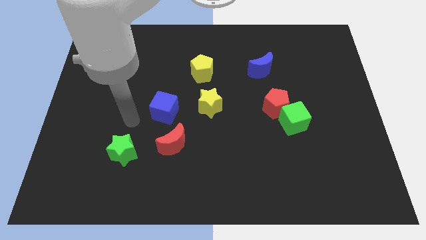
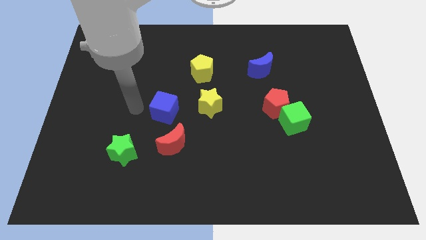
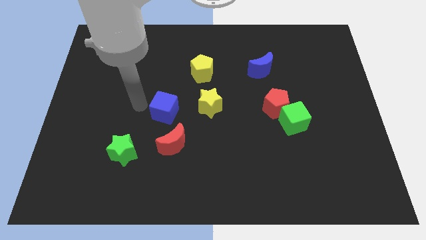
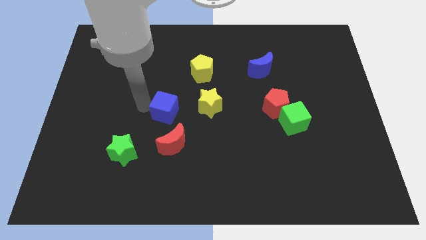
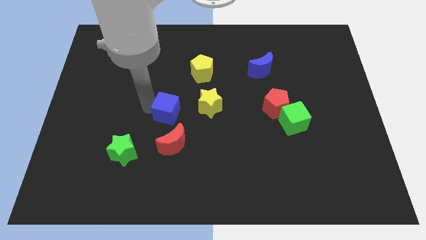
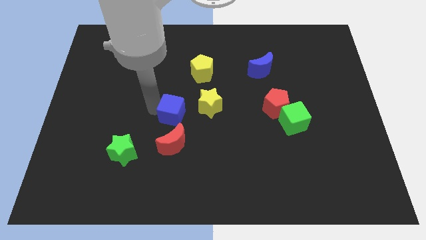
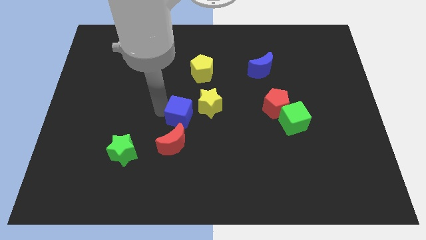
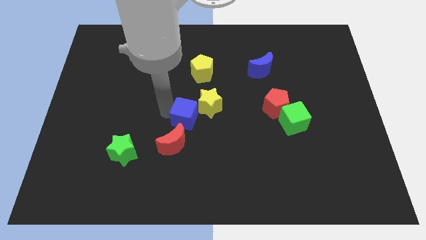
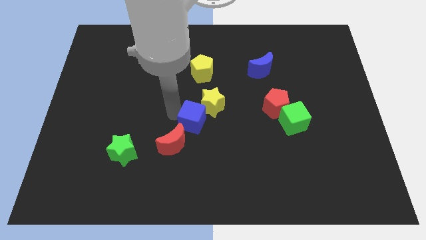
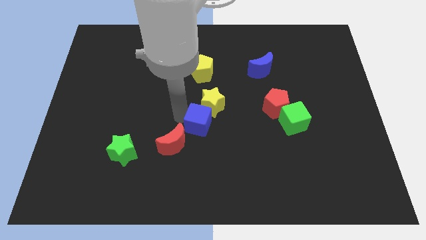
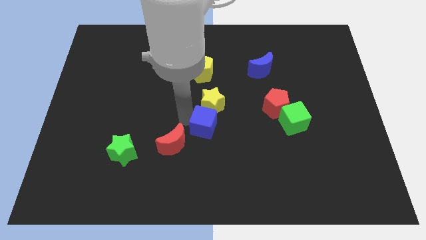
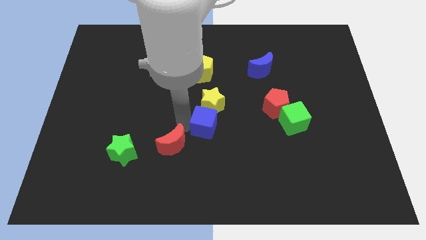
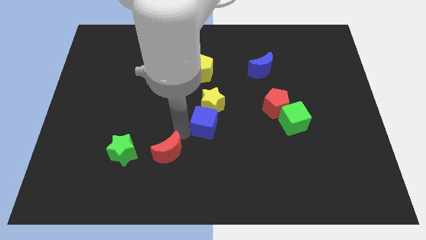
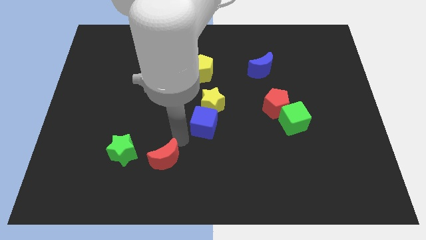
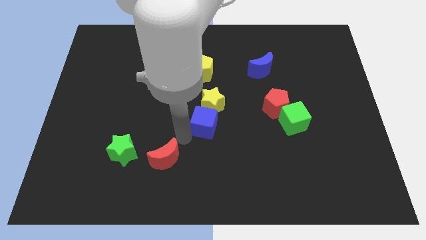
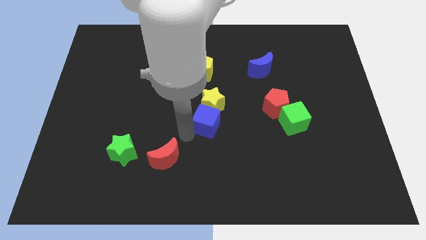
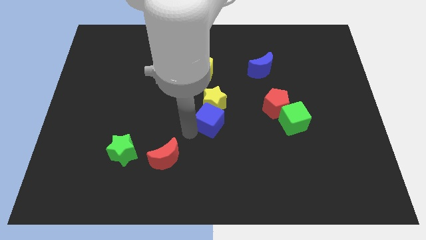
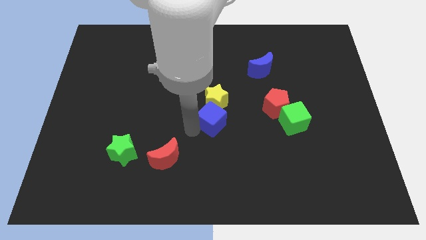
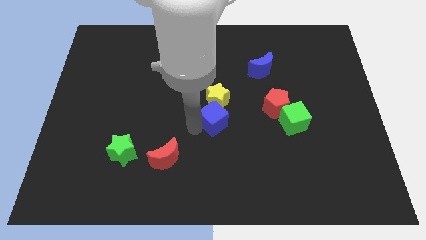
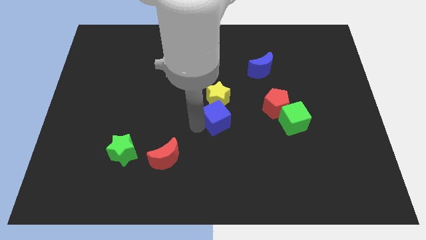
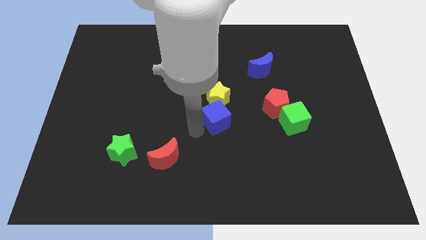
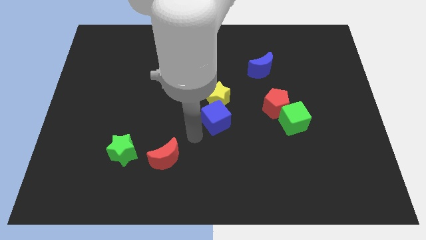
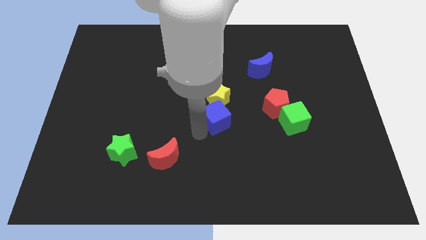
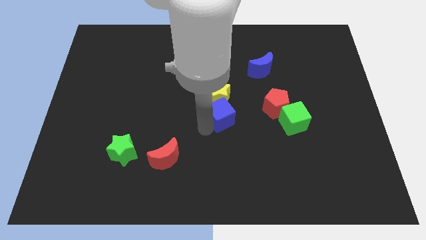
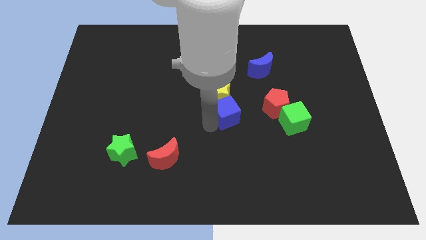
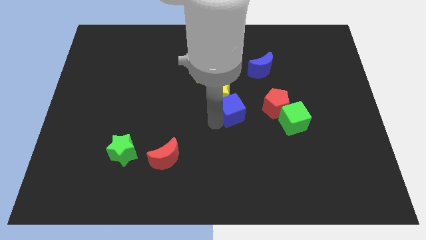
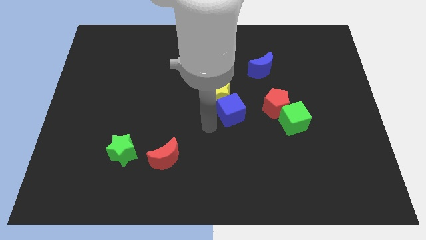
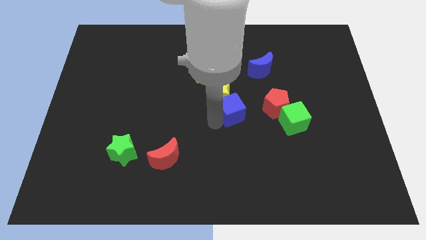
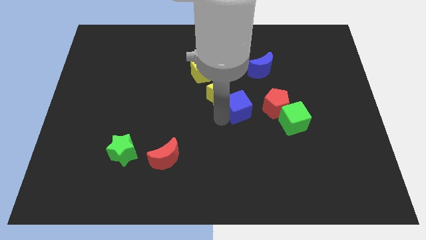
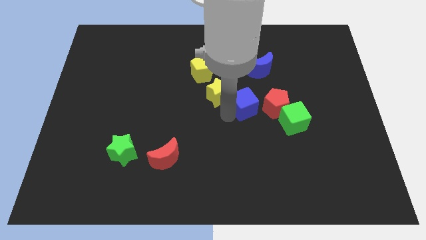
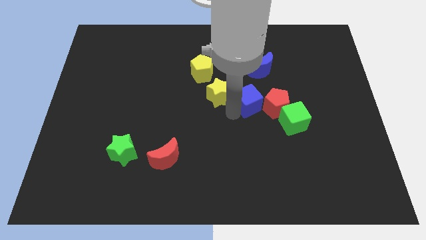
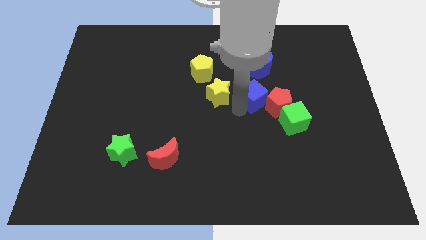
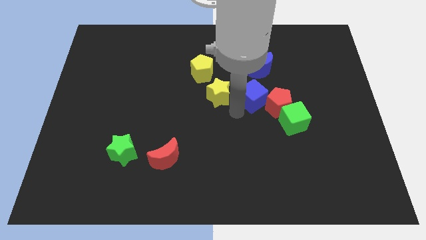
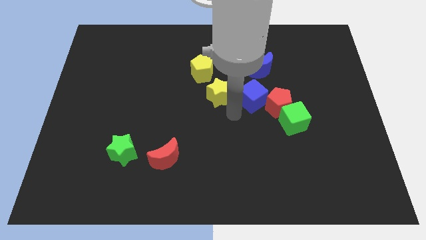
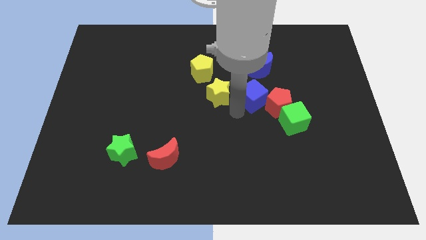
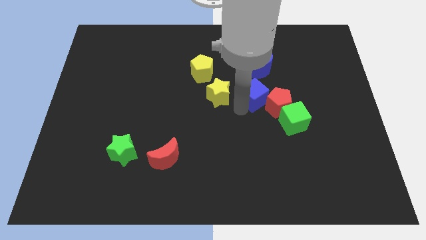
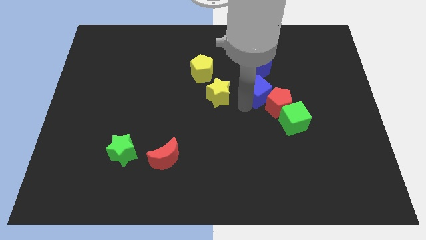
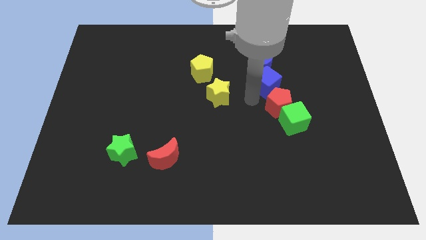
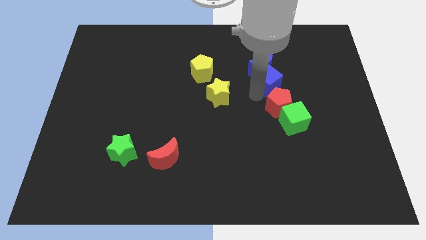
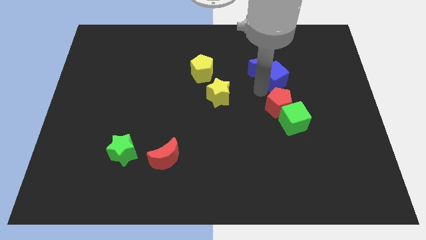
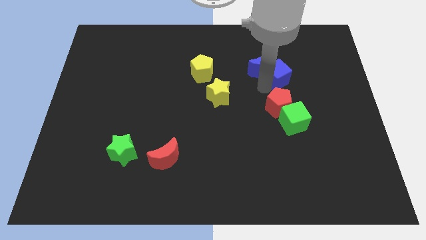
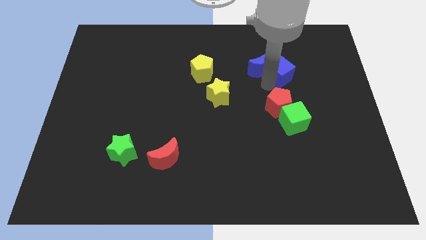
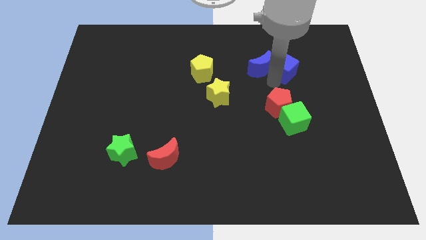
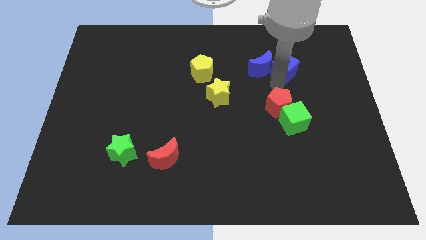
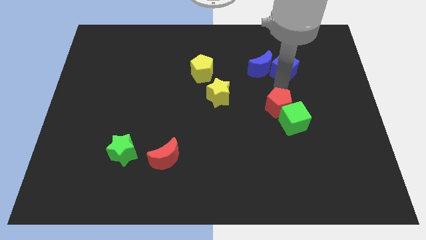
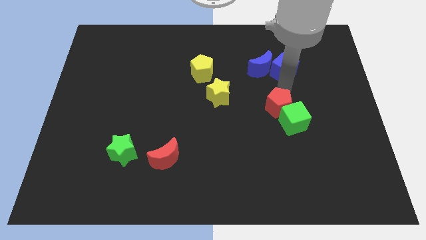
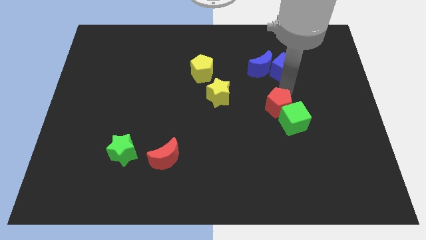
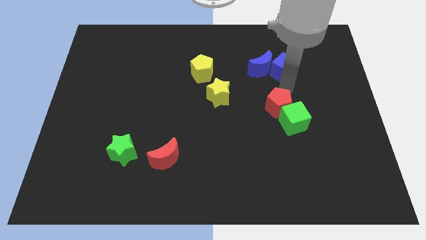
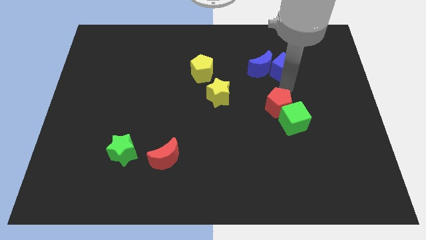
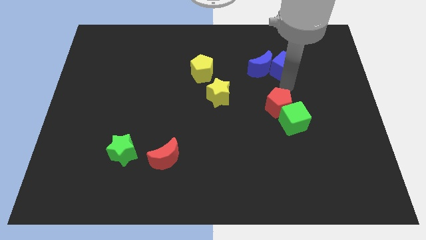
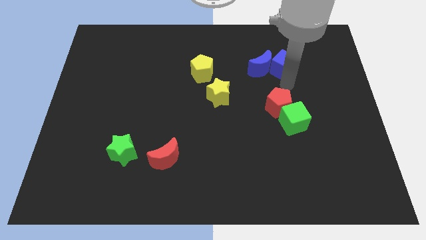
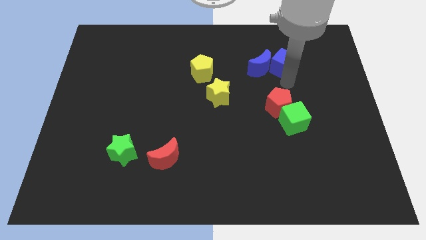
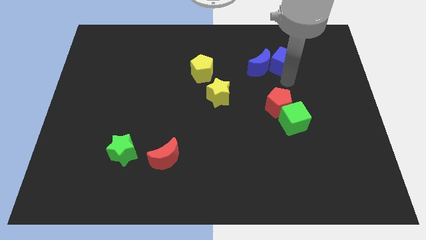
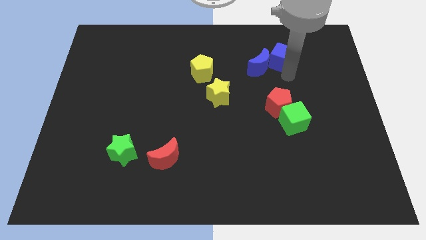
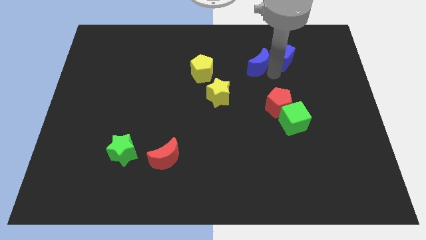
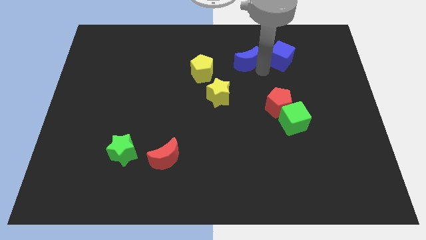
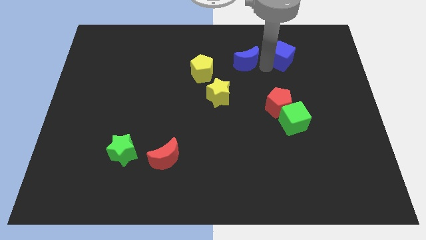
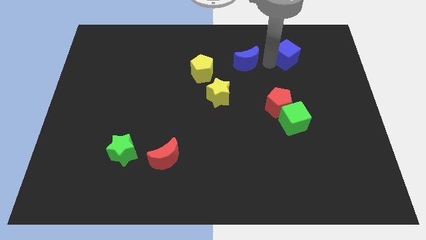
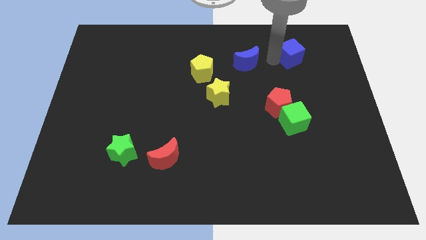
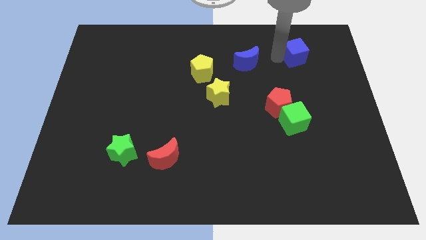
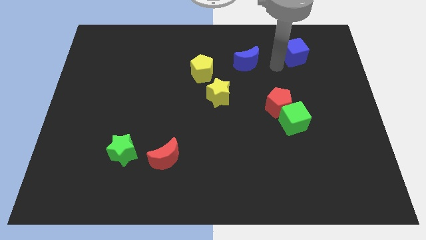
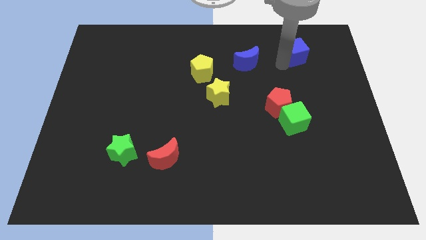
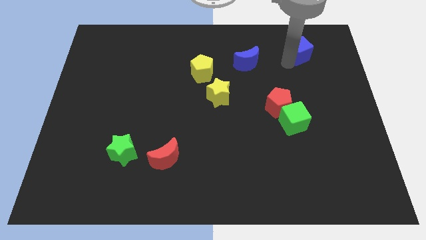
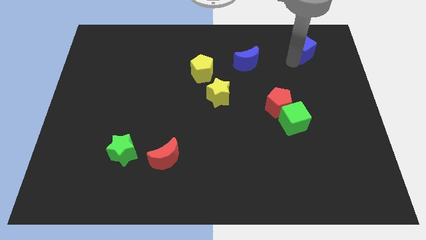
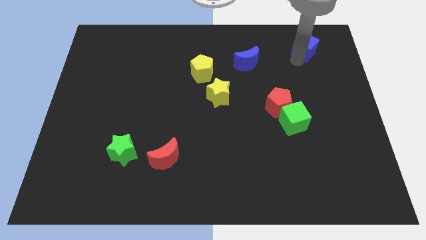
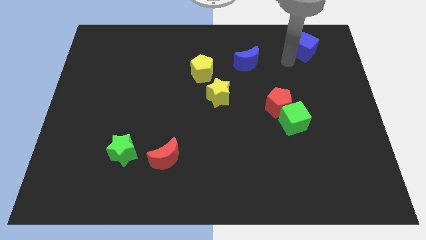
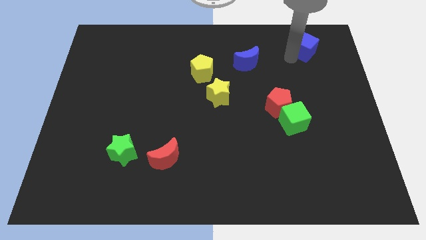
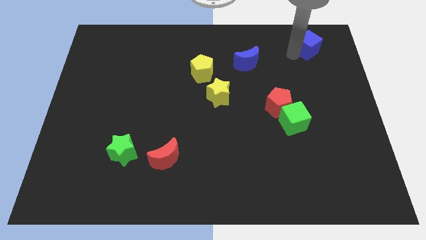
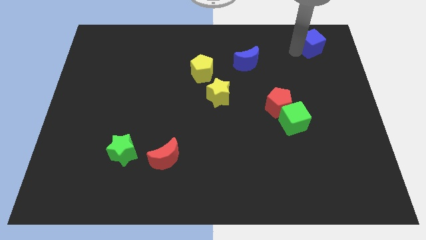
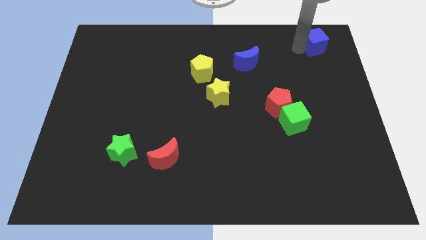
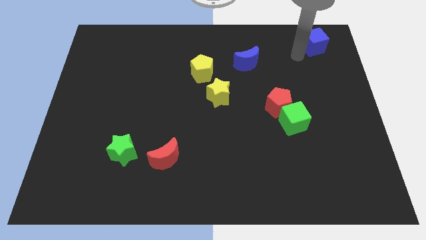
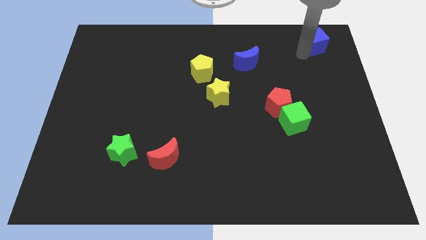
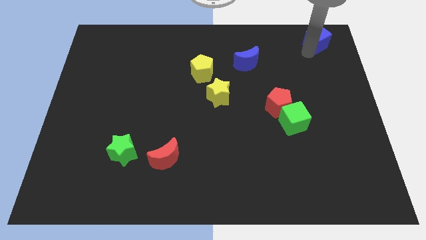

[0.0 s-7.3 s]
move the blue cube to the top right corner
